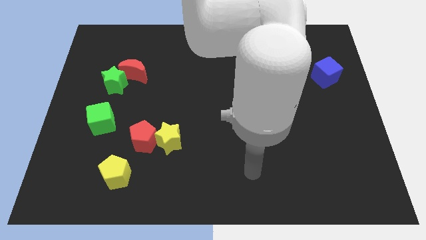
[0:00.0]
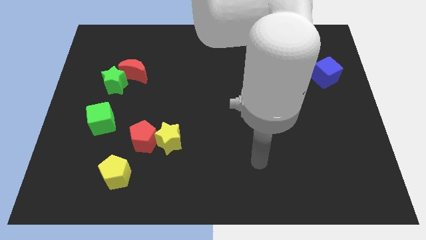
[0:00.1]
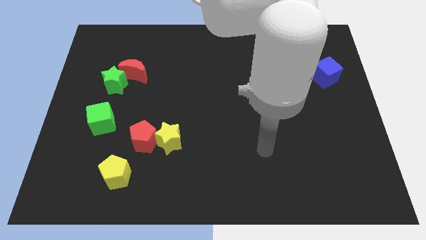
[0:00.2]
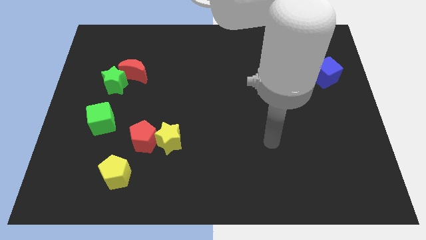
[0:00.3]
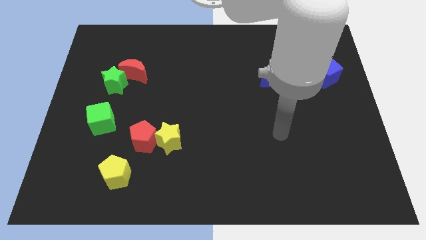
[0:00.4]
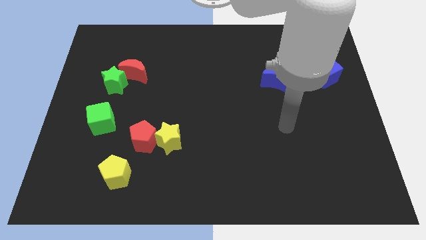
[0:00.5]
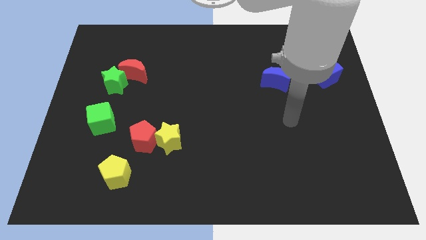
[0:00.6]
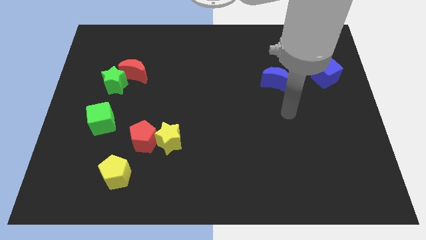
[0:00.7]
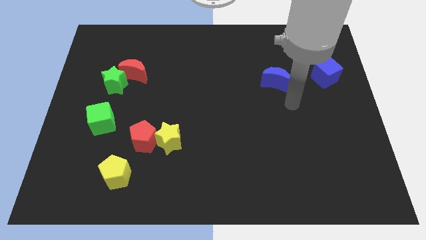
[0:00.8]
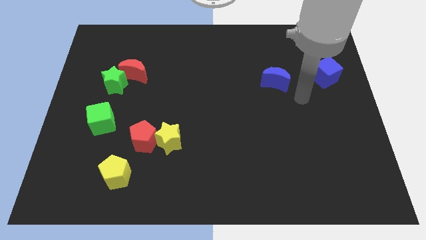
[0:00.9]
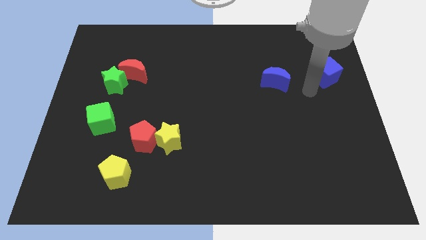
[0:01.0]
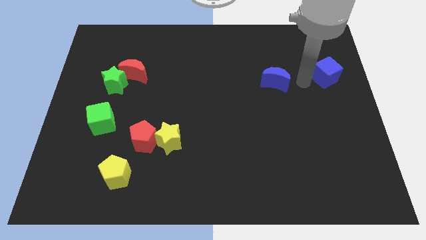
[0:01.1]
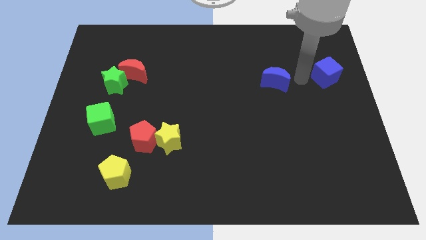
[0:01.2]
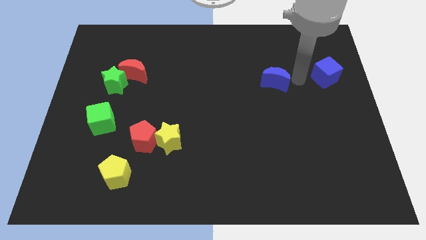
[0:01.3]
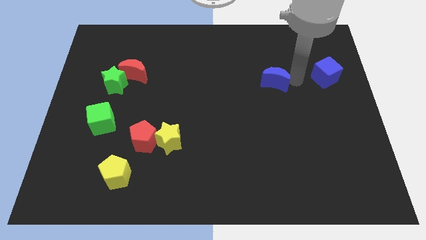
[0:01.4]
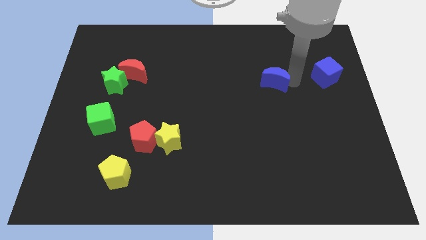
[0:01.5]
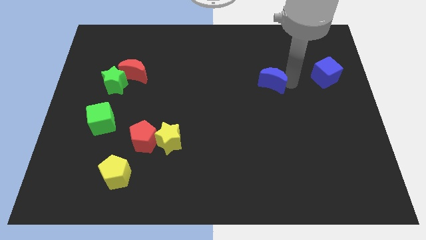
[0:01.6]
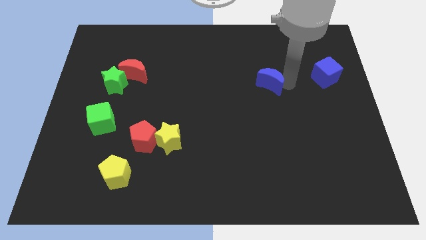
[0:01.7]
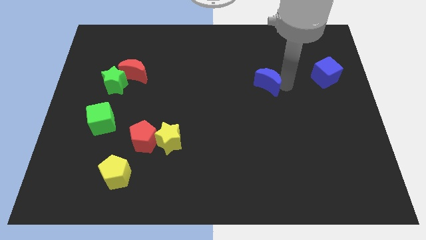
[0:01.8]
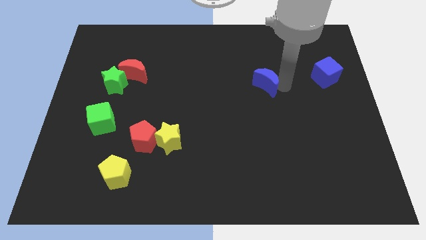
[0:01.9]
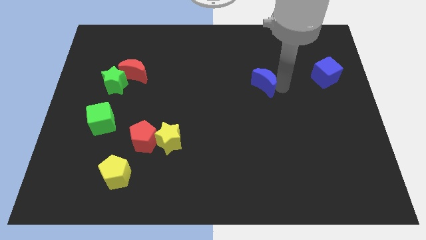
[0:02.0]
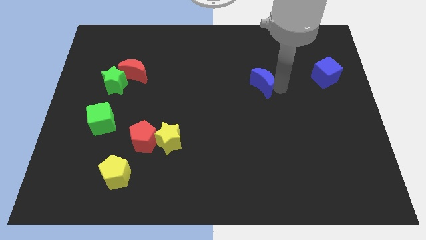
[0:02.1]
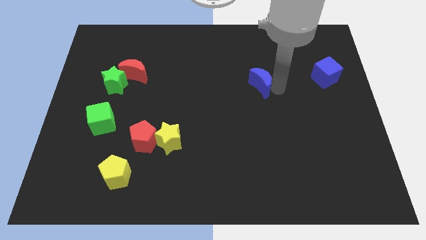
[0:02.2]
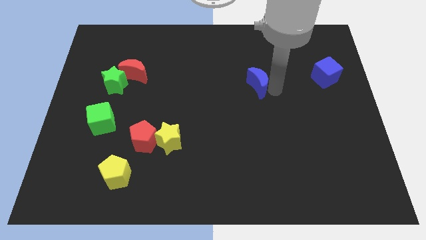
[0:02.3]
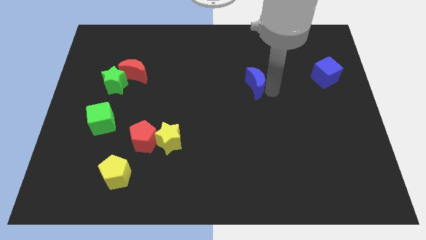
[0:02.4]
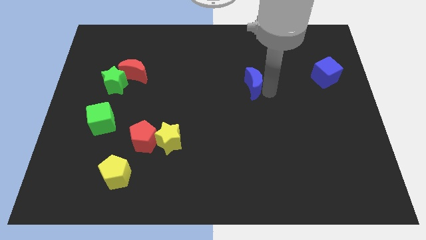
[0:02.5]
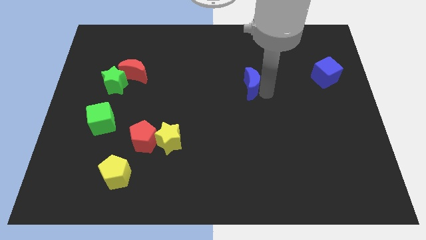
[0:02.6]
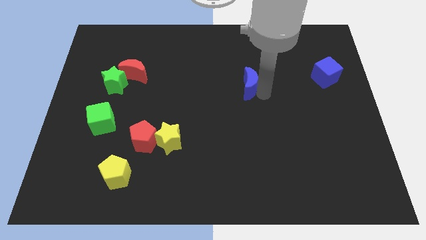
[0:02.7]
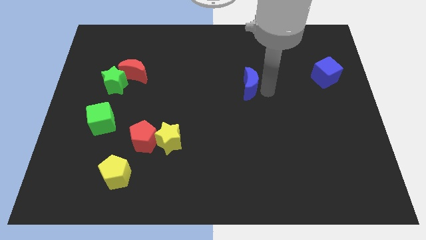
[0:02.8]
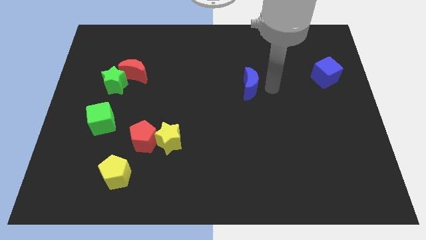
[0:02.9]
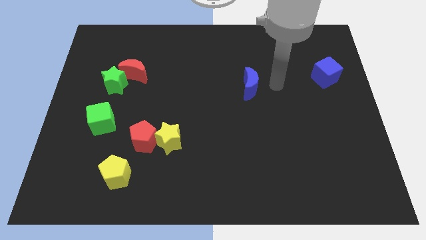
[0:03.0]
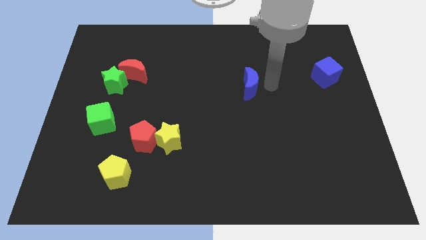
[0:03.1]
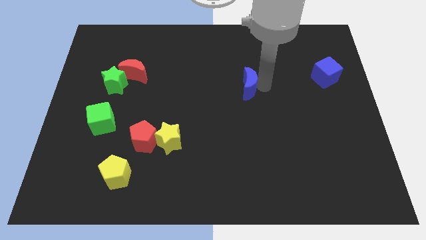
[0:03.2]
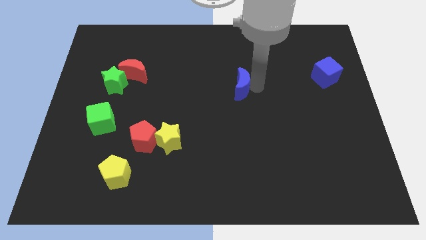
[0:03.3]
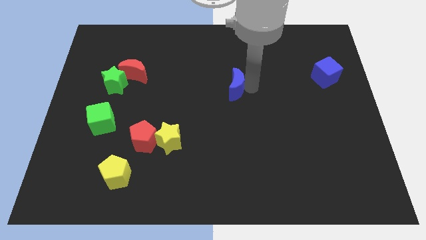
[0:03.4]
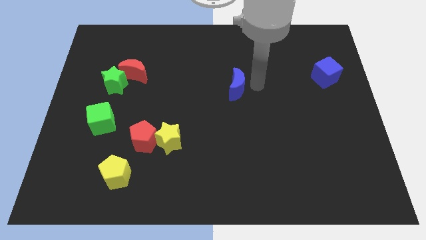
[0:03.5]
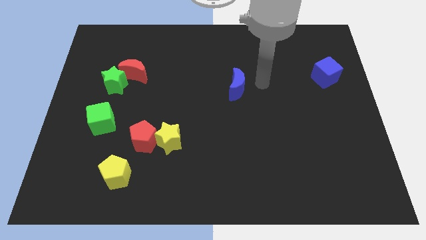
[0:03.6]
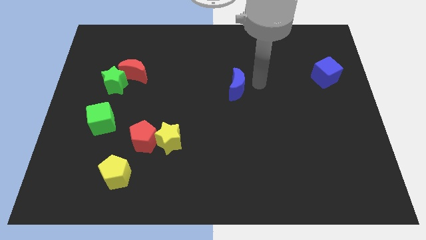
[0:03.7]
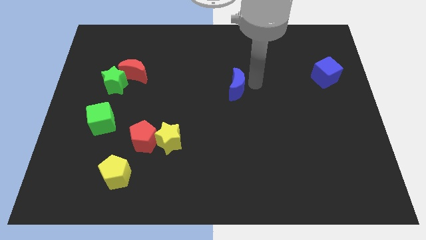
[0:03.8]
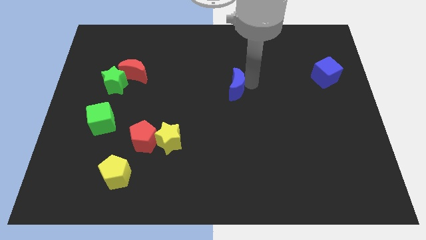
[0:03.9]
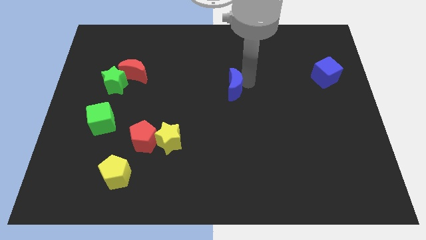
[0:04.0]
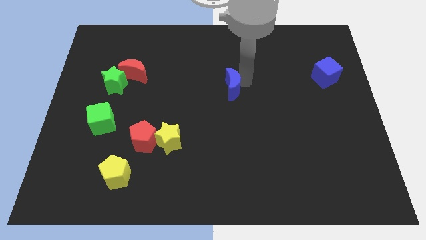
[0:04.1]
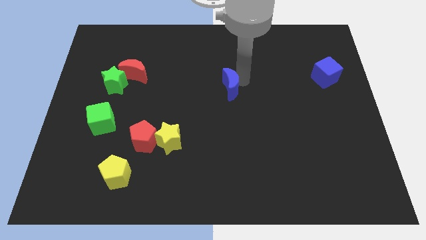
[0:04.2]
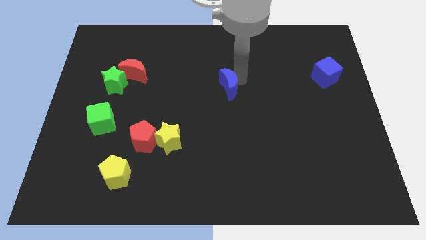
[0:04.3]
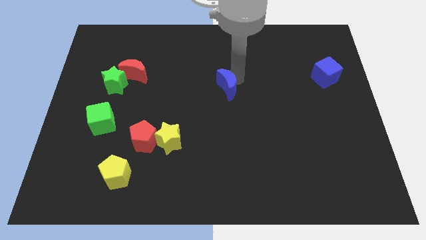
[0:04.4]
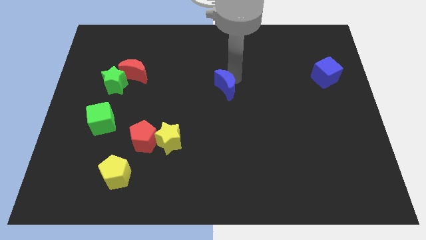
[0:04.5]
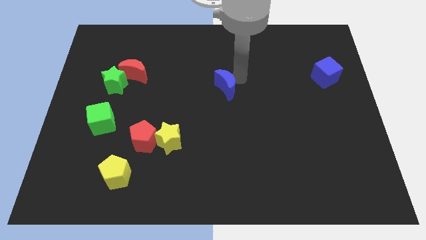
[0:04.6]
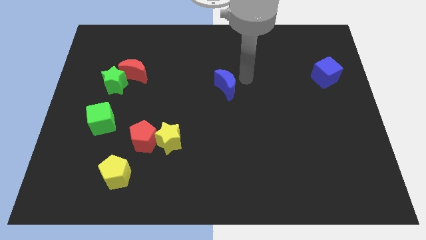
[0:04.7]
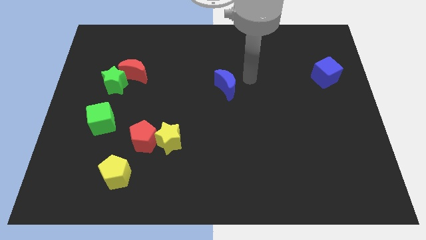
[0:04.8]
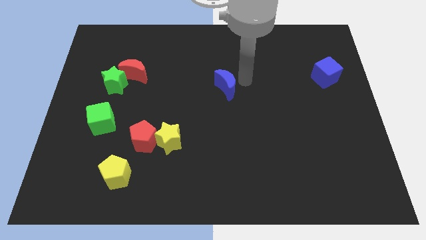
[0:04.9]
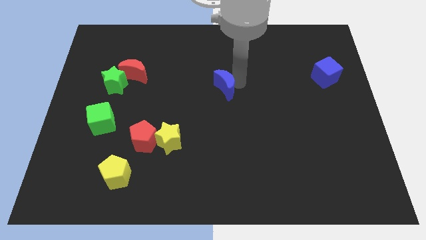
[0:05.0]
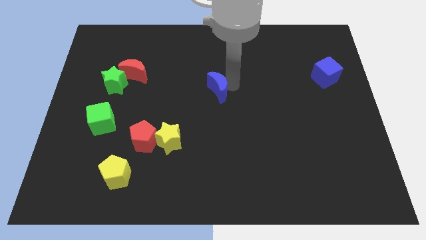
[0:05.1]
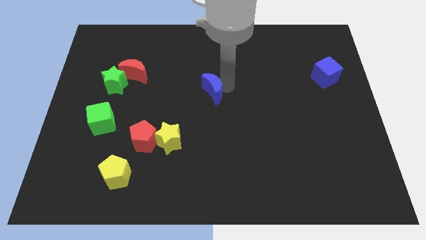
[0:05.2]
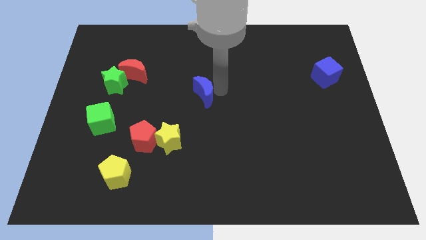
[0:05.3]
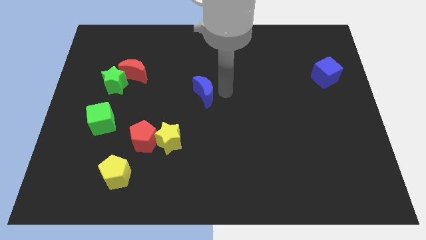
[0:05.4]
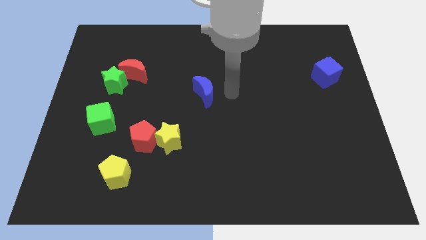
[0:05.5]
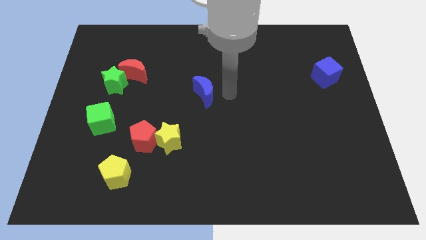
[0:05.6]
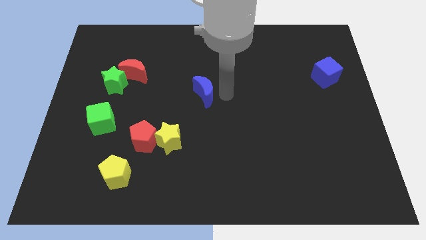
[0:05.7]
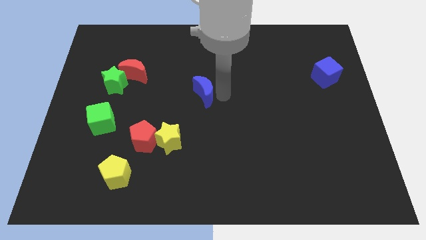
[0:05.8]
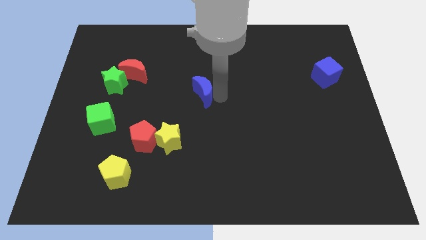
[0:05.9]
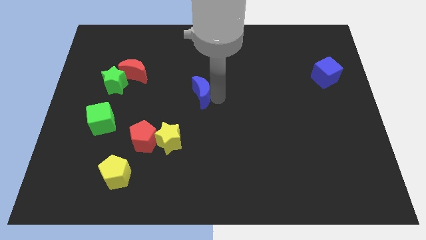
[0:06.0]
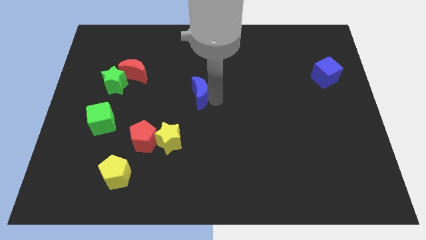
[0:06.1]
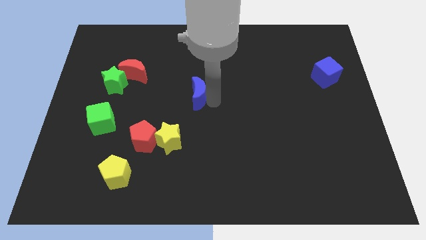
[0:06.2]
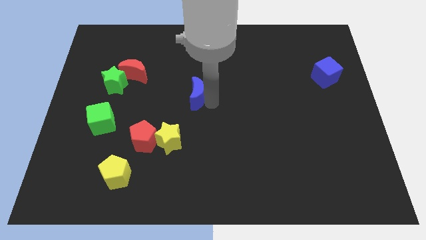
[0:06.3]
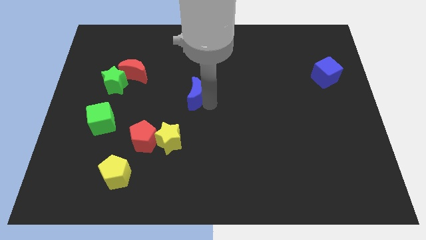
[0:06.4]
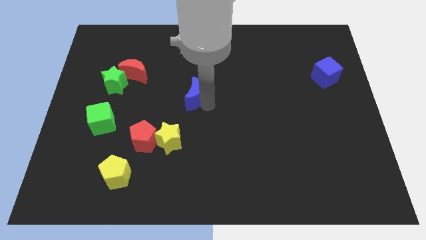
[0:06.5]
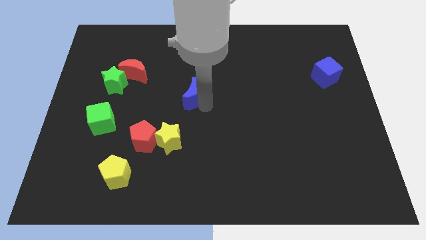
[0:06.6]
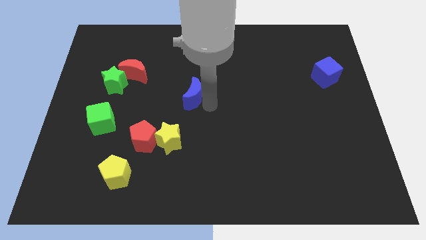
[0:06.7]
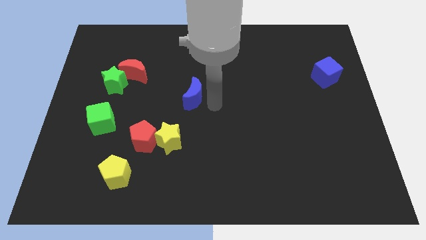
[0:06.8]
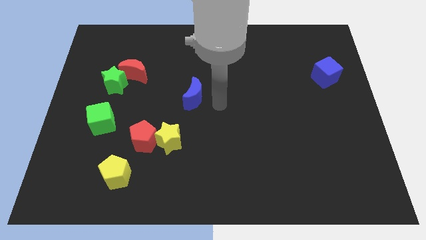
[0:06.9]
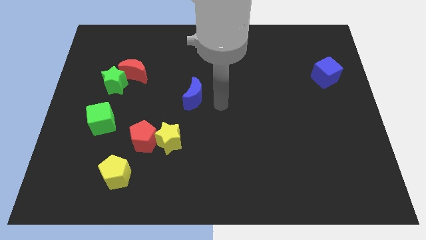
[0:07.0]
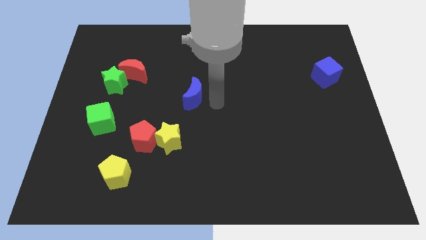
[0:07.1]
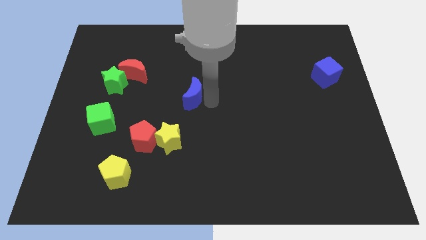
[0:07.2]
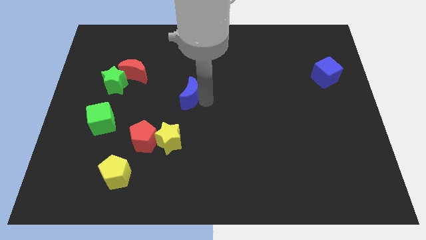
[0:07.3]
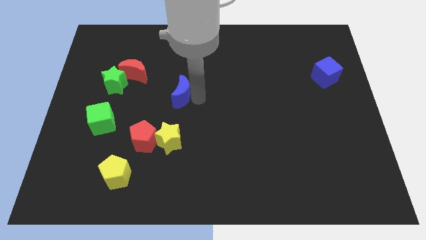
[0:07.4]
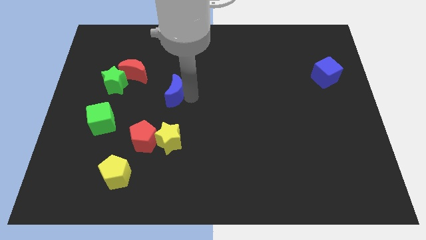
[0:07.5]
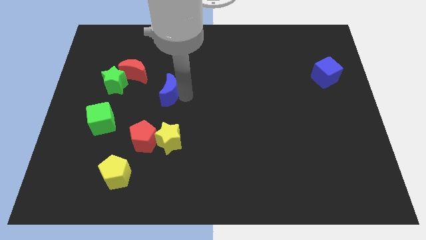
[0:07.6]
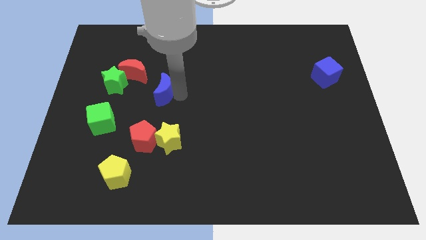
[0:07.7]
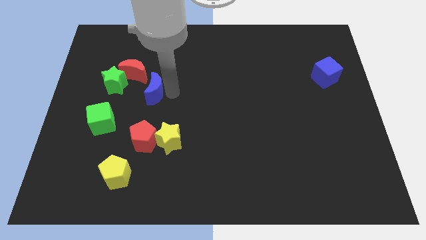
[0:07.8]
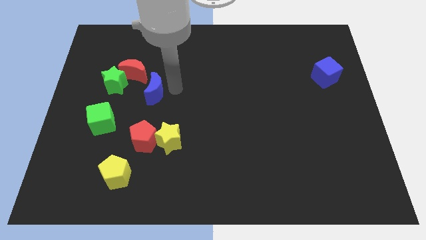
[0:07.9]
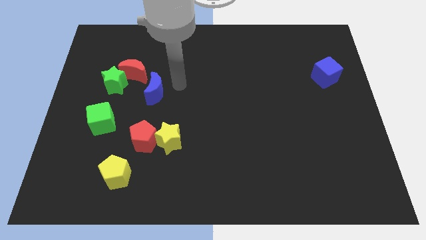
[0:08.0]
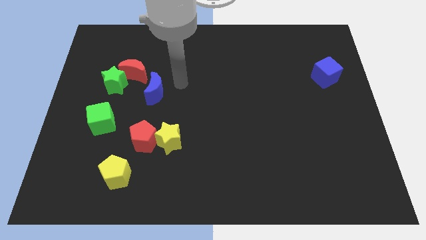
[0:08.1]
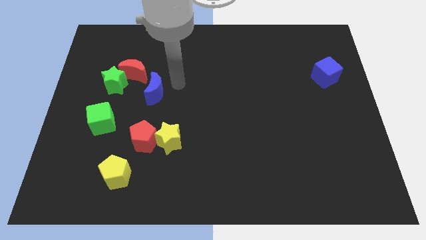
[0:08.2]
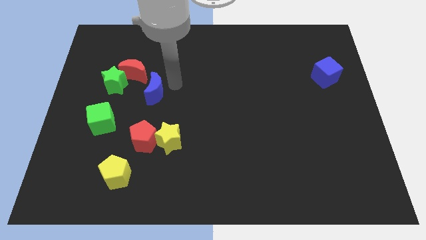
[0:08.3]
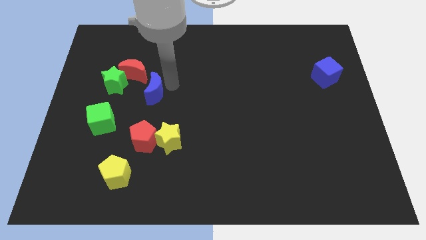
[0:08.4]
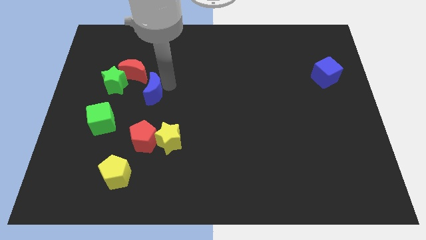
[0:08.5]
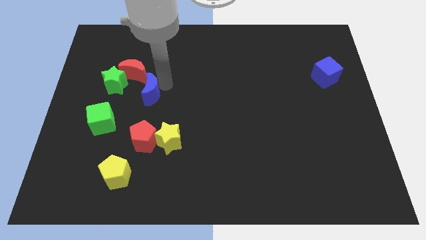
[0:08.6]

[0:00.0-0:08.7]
move the blue moon diagonally down and to the right of the green star
